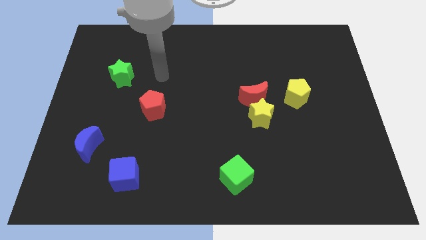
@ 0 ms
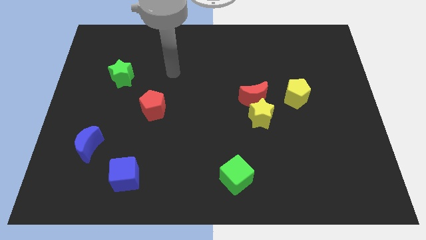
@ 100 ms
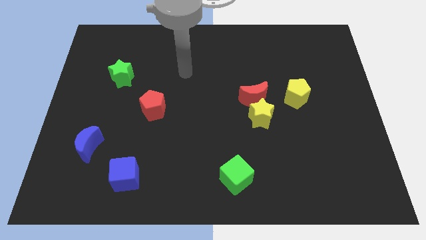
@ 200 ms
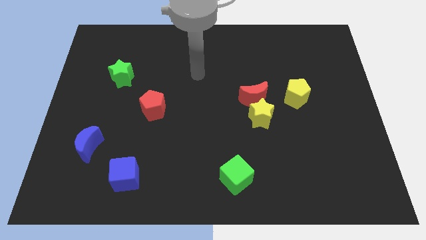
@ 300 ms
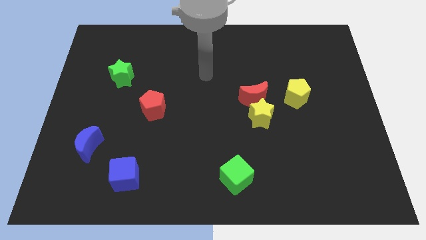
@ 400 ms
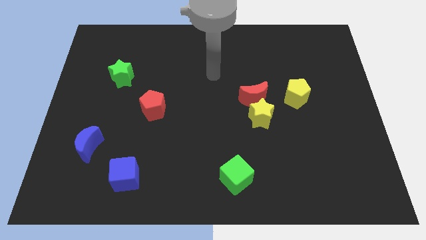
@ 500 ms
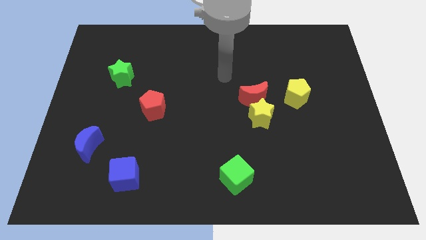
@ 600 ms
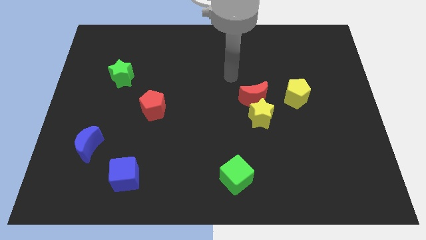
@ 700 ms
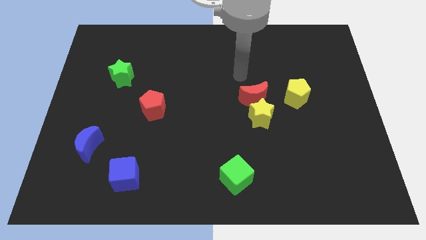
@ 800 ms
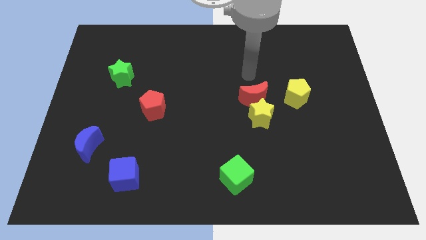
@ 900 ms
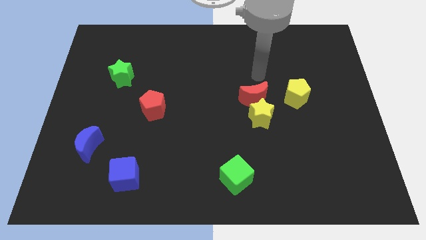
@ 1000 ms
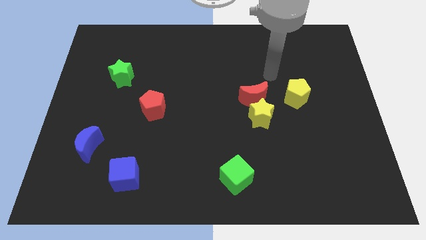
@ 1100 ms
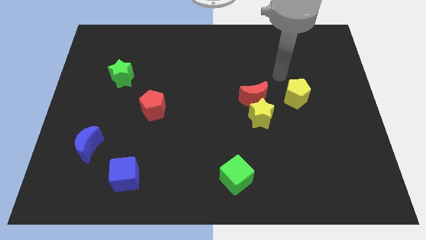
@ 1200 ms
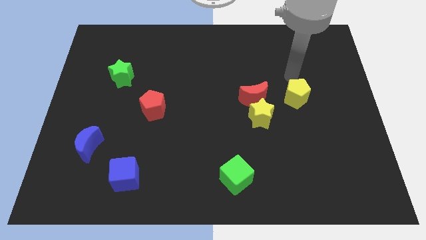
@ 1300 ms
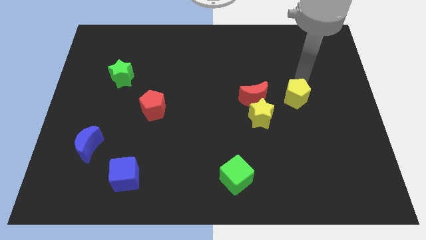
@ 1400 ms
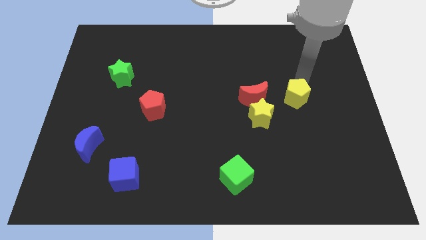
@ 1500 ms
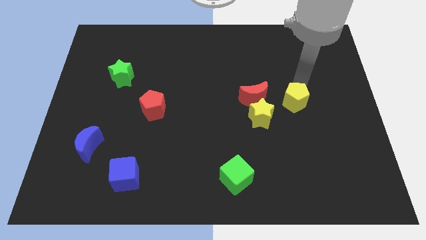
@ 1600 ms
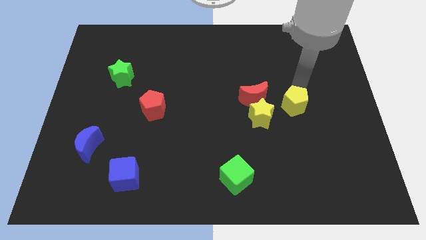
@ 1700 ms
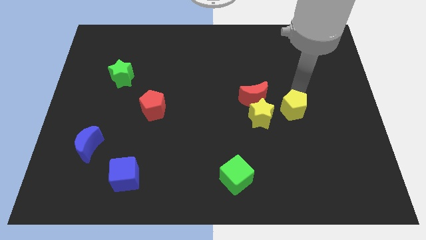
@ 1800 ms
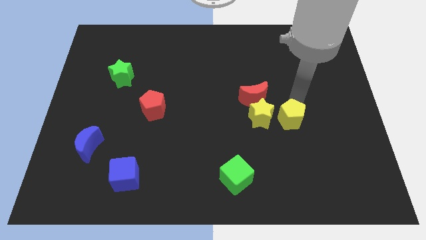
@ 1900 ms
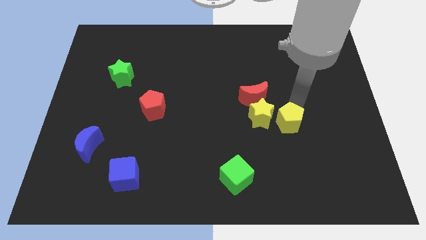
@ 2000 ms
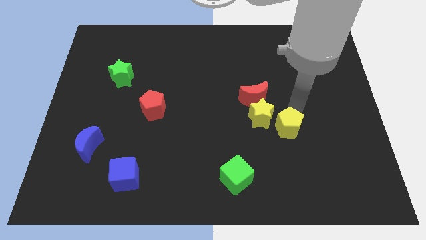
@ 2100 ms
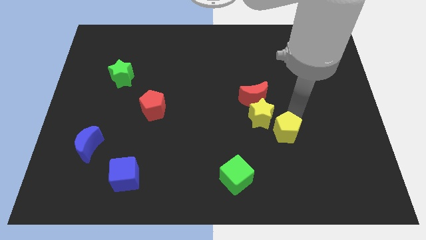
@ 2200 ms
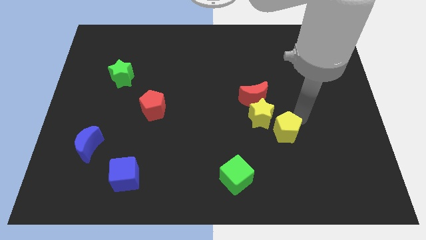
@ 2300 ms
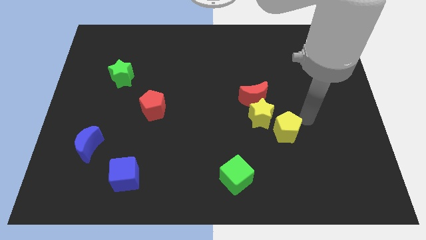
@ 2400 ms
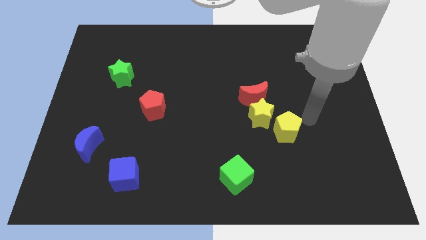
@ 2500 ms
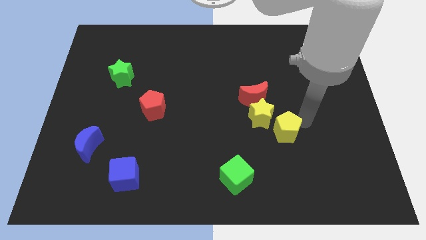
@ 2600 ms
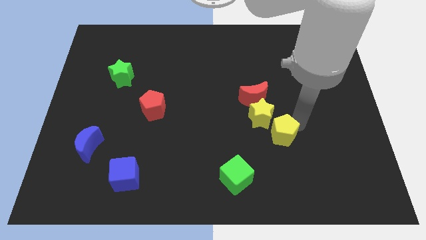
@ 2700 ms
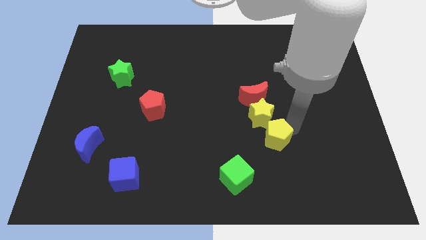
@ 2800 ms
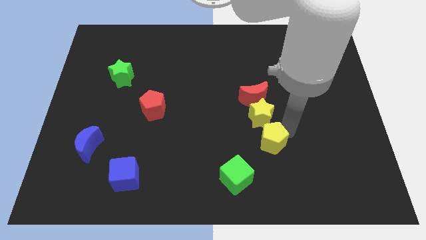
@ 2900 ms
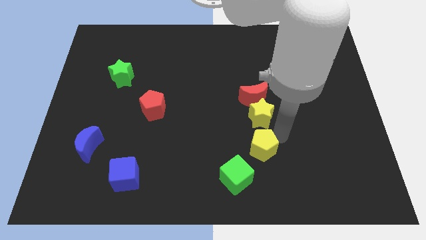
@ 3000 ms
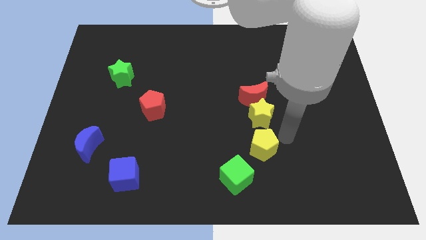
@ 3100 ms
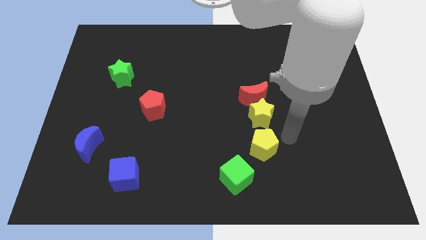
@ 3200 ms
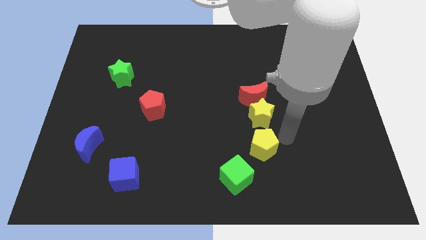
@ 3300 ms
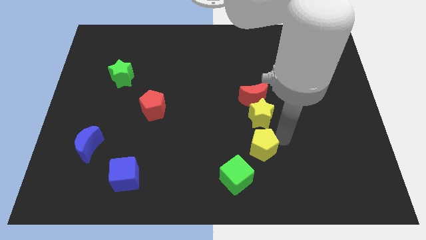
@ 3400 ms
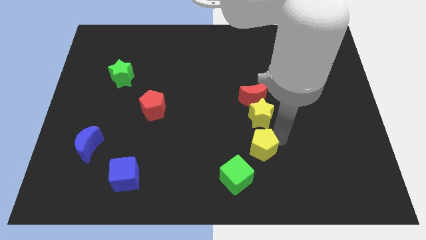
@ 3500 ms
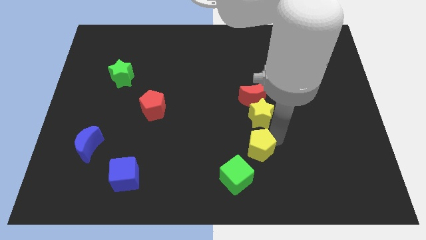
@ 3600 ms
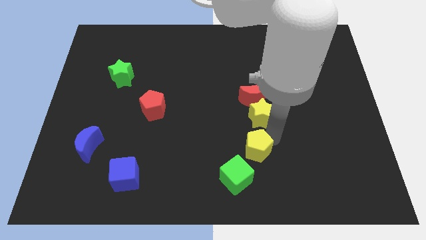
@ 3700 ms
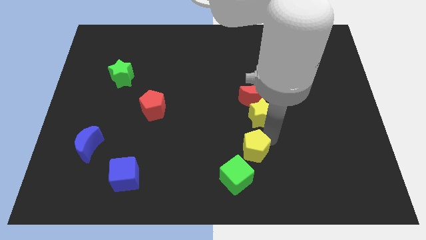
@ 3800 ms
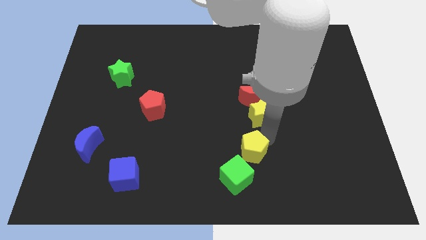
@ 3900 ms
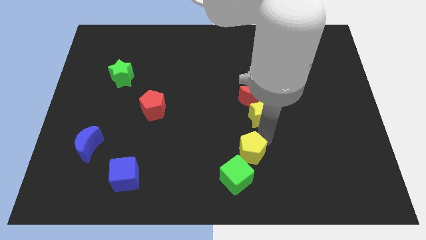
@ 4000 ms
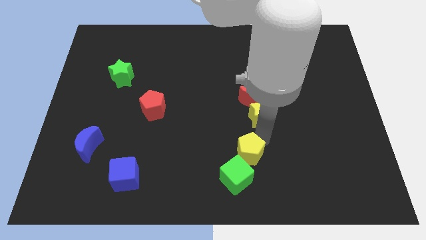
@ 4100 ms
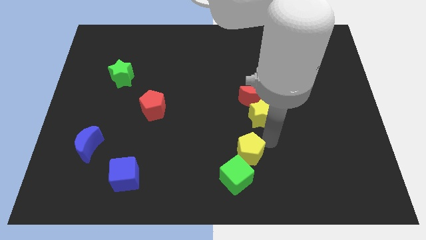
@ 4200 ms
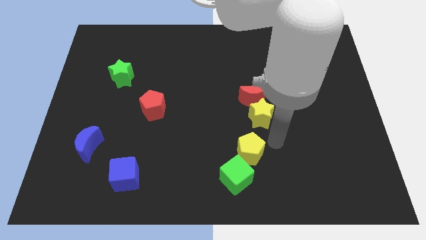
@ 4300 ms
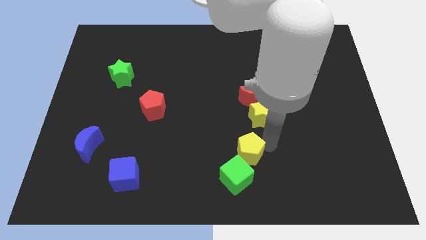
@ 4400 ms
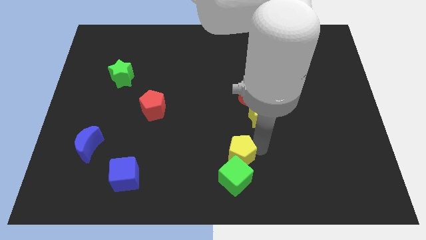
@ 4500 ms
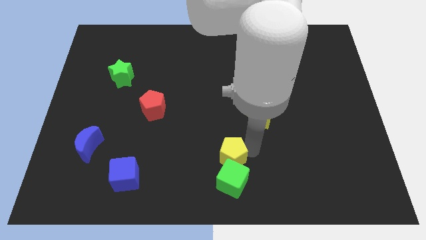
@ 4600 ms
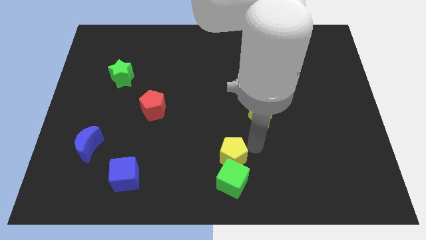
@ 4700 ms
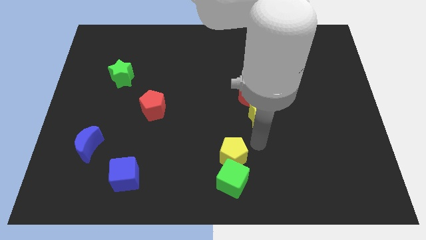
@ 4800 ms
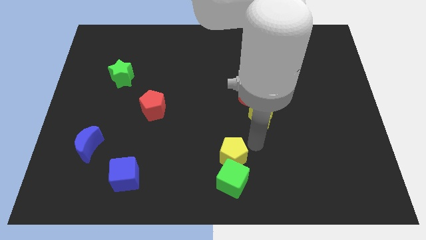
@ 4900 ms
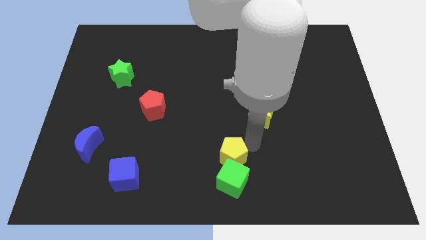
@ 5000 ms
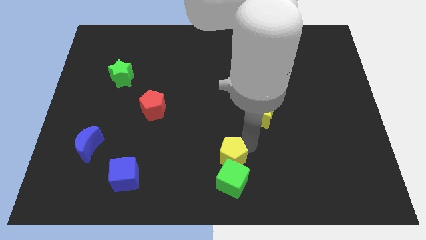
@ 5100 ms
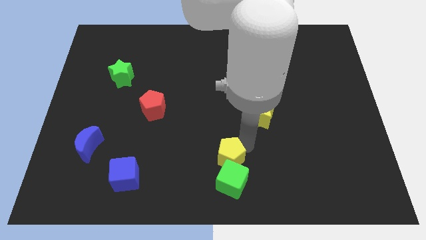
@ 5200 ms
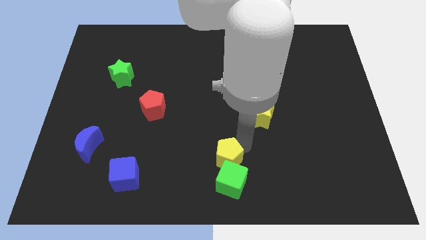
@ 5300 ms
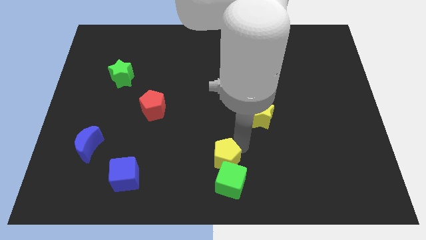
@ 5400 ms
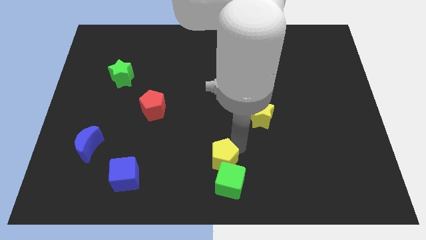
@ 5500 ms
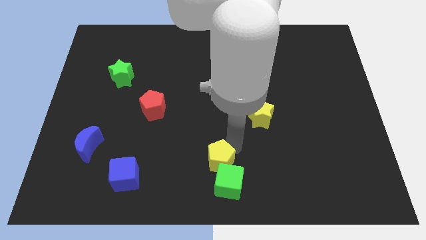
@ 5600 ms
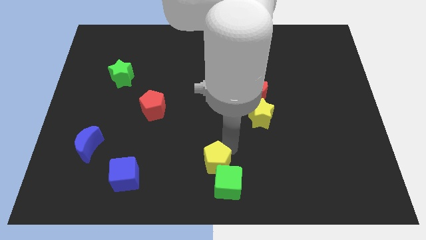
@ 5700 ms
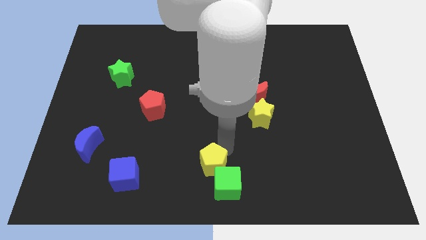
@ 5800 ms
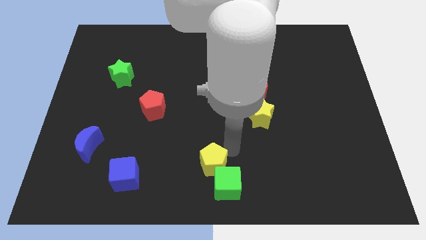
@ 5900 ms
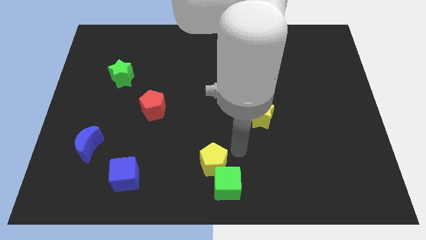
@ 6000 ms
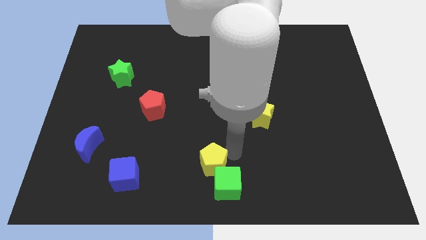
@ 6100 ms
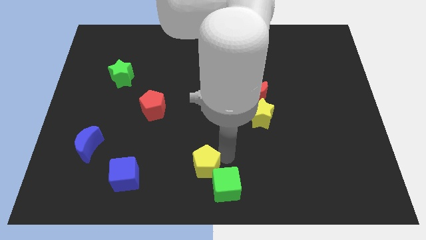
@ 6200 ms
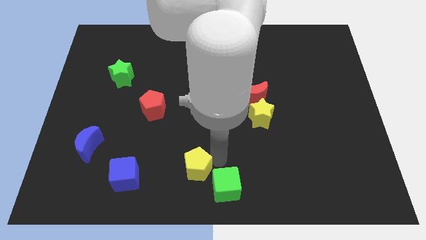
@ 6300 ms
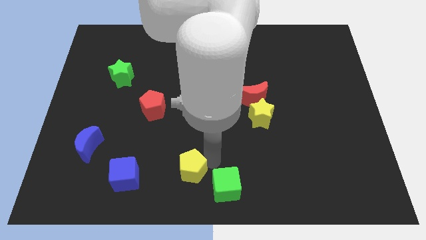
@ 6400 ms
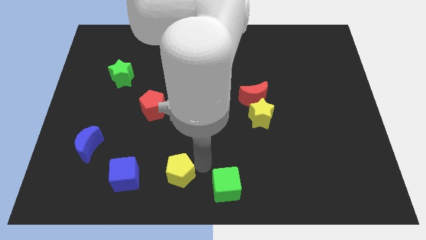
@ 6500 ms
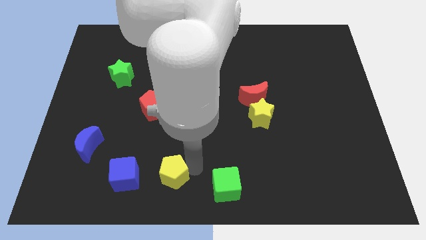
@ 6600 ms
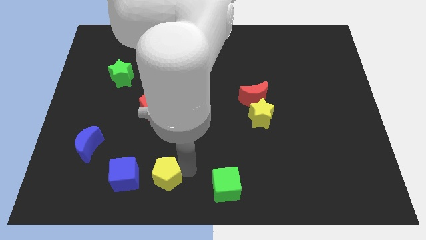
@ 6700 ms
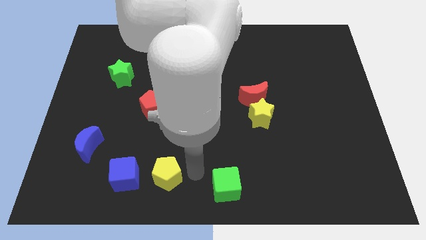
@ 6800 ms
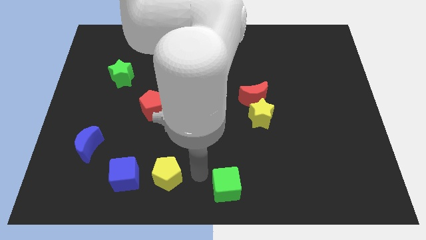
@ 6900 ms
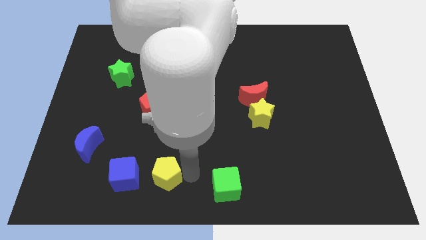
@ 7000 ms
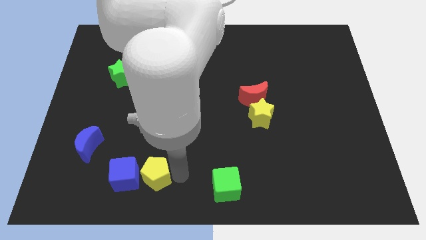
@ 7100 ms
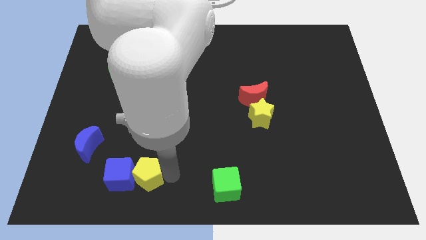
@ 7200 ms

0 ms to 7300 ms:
move the yellow pentagon next to the blue cube
